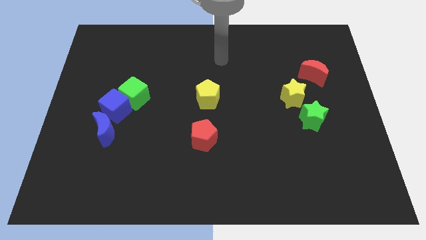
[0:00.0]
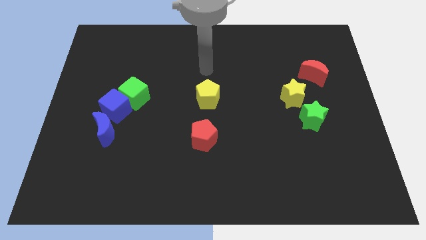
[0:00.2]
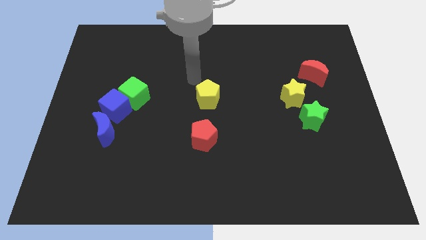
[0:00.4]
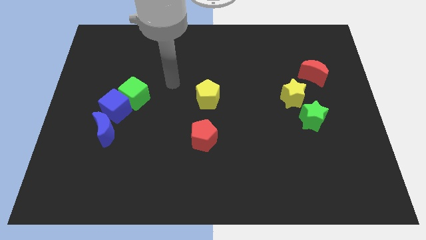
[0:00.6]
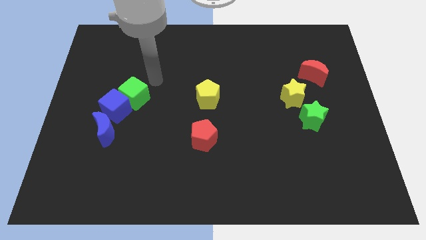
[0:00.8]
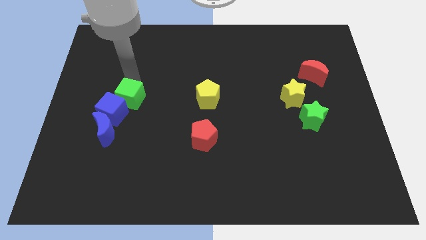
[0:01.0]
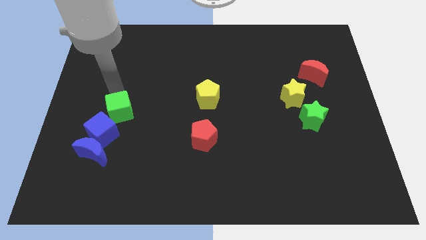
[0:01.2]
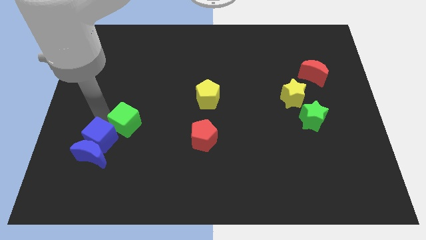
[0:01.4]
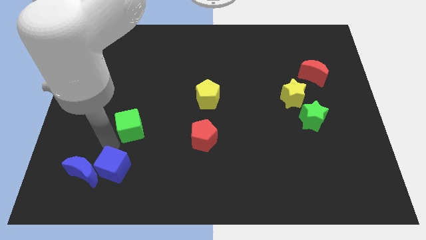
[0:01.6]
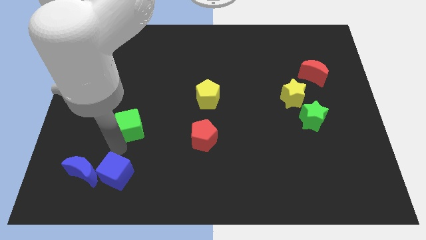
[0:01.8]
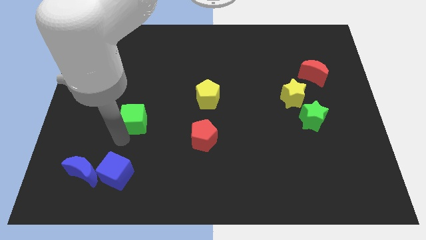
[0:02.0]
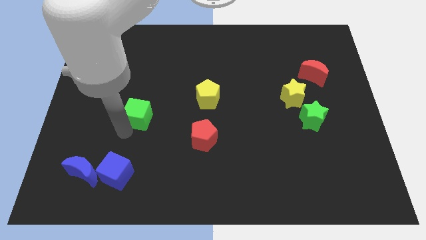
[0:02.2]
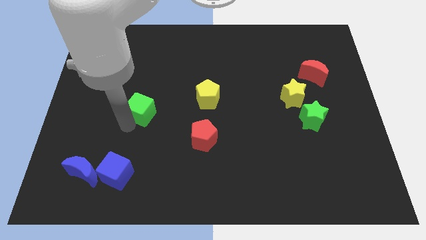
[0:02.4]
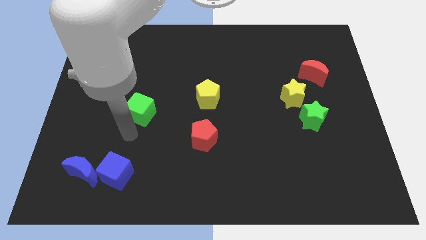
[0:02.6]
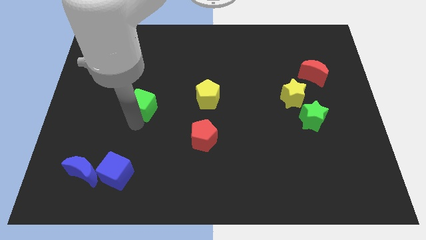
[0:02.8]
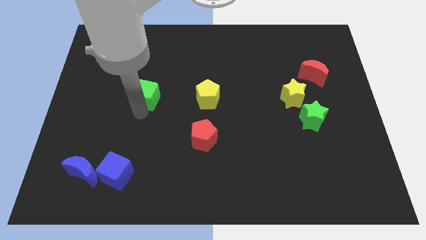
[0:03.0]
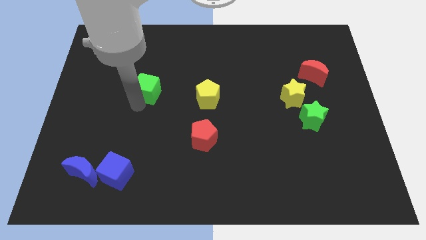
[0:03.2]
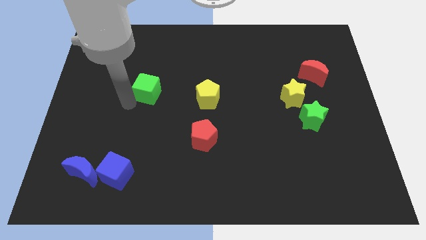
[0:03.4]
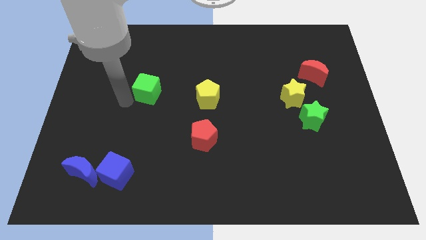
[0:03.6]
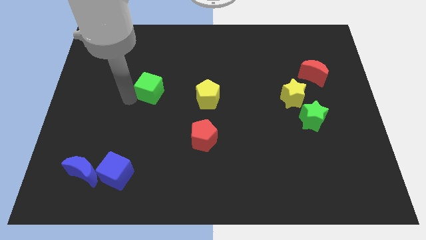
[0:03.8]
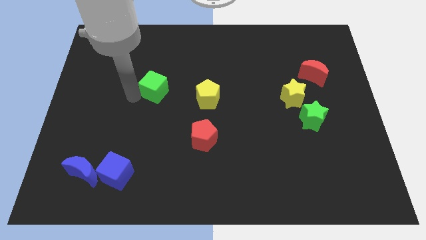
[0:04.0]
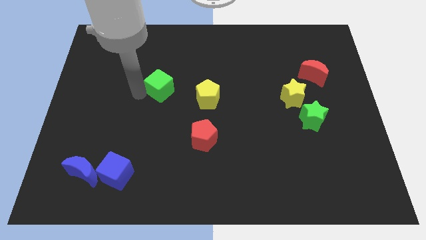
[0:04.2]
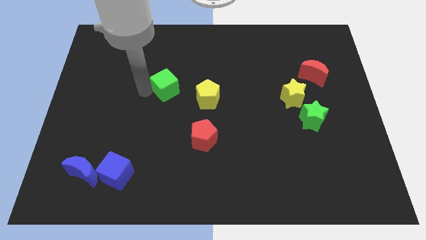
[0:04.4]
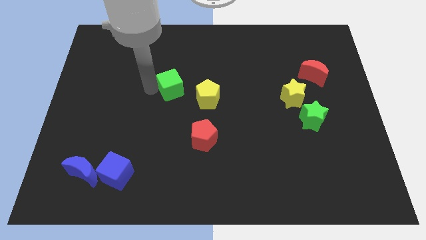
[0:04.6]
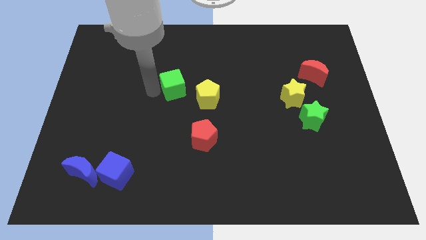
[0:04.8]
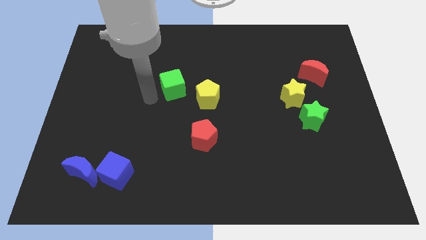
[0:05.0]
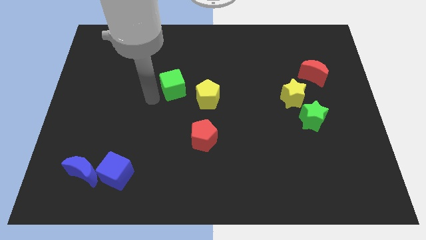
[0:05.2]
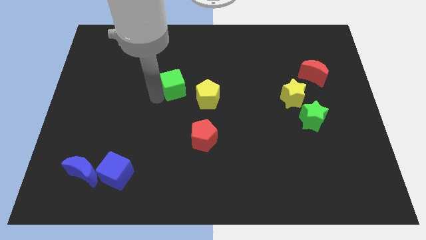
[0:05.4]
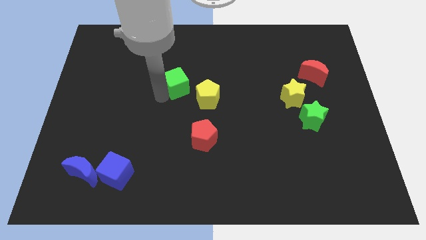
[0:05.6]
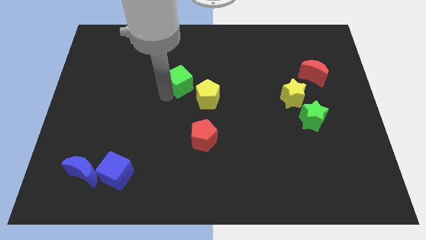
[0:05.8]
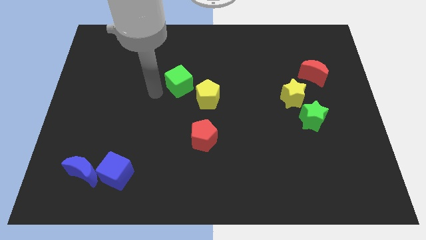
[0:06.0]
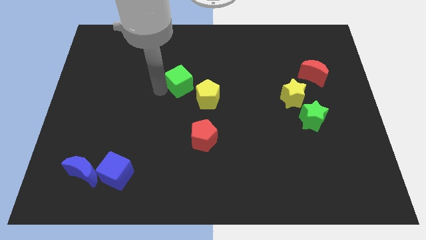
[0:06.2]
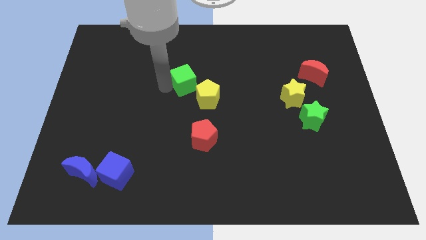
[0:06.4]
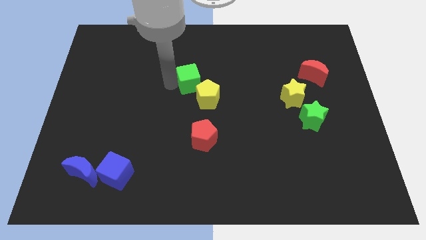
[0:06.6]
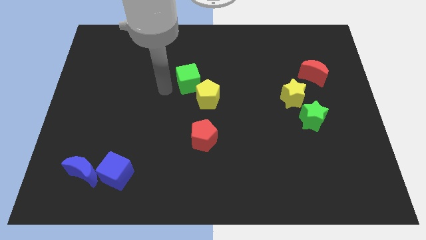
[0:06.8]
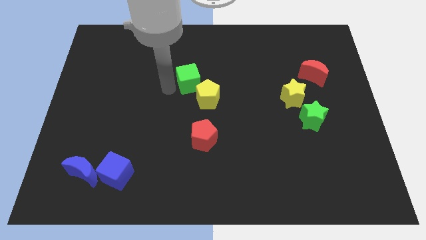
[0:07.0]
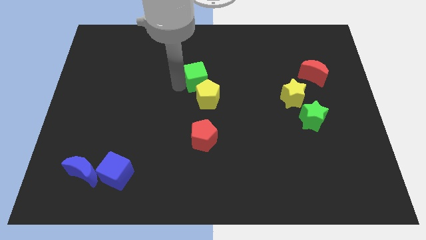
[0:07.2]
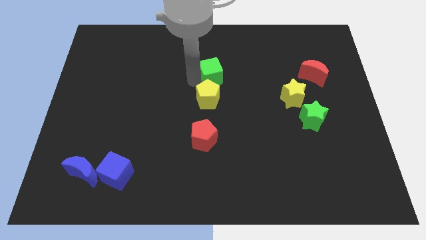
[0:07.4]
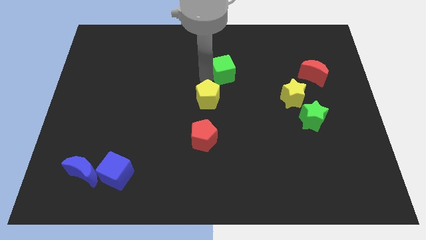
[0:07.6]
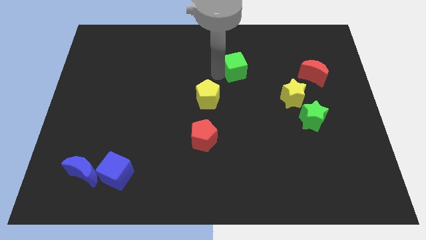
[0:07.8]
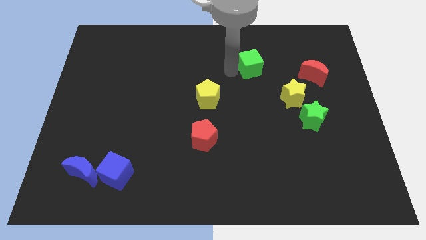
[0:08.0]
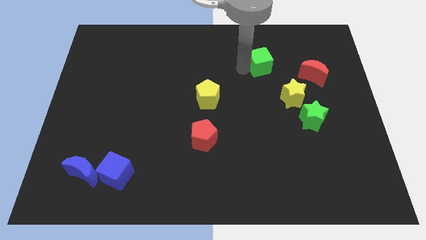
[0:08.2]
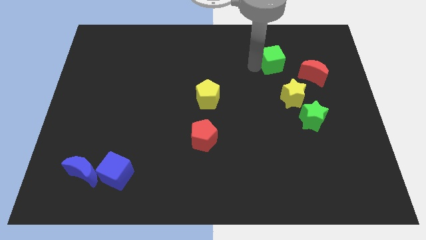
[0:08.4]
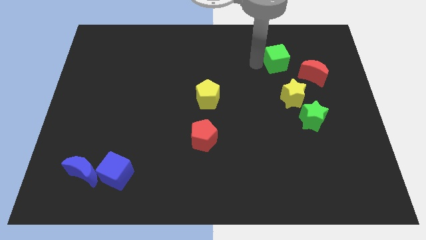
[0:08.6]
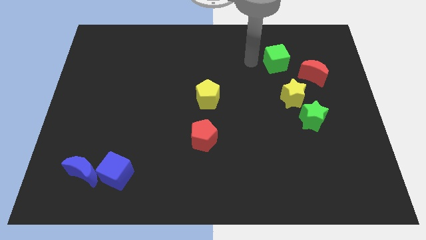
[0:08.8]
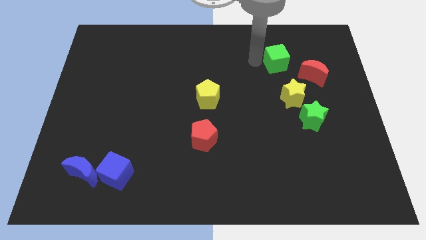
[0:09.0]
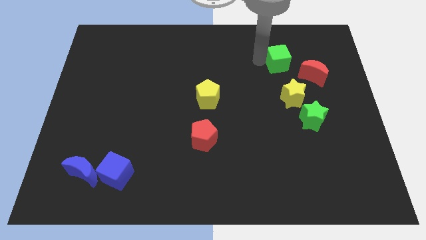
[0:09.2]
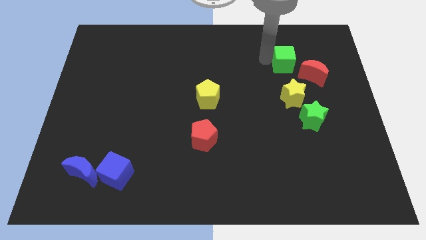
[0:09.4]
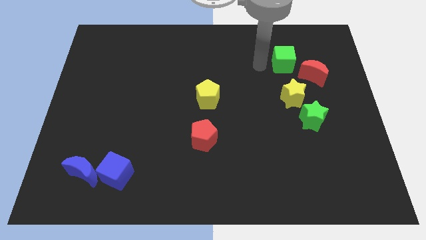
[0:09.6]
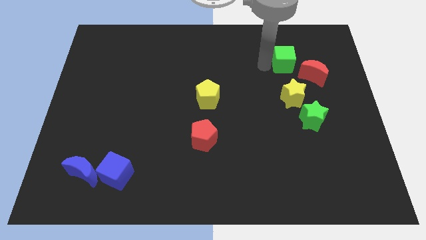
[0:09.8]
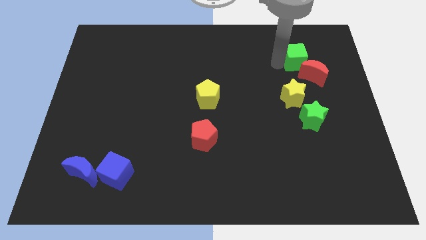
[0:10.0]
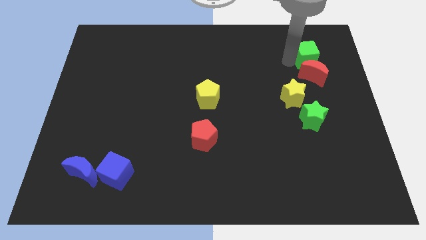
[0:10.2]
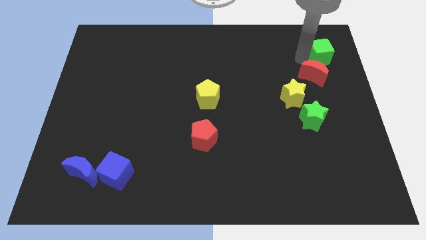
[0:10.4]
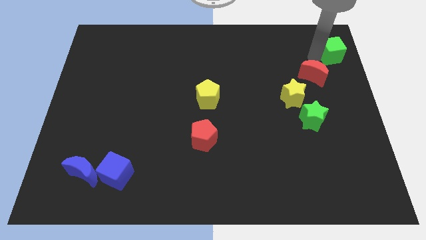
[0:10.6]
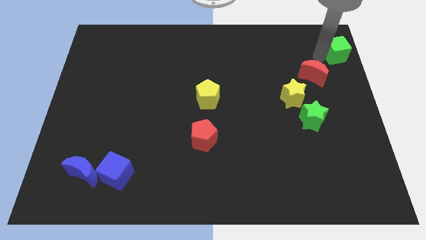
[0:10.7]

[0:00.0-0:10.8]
move the green cube to the upper right corner
